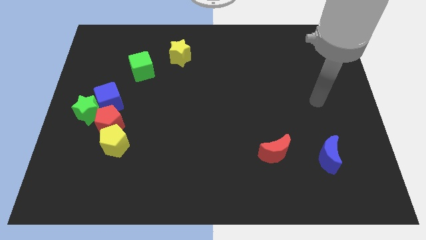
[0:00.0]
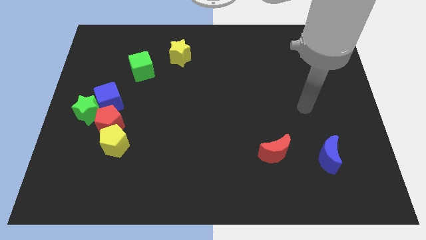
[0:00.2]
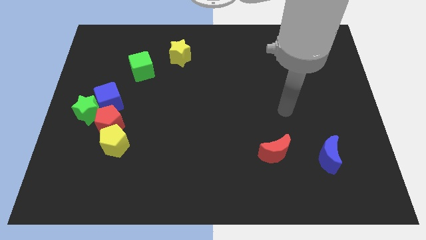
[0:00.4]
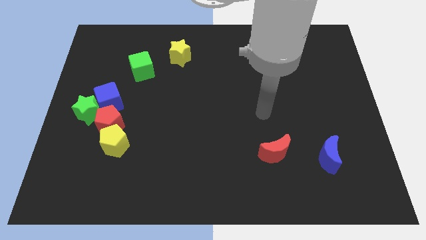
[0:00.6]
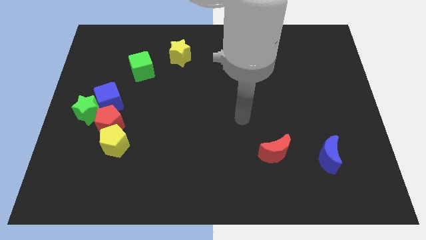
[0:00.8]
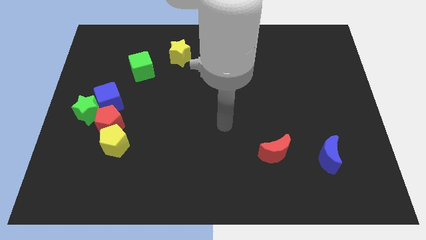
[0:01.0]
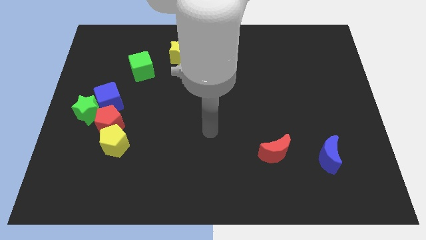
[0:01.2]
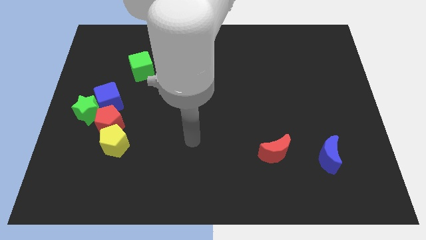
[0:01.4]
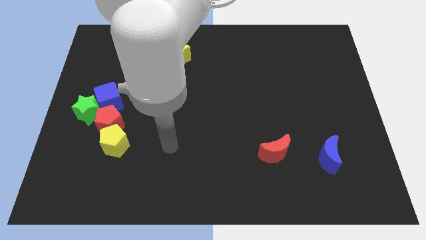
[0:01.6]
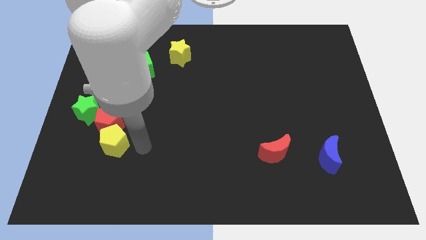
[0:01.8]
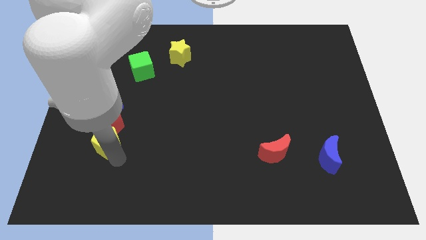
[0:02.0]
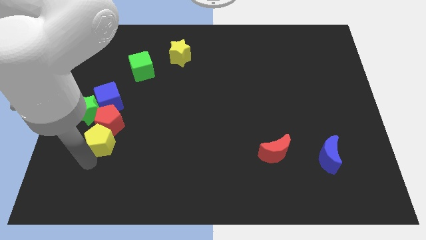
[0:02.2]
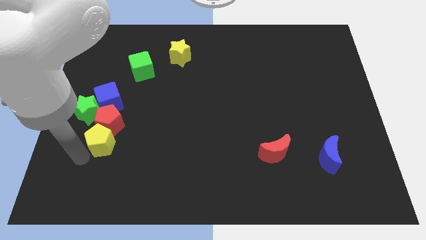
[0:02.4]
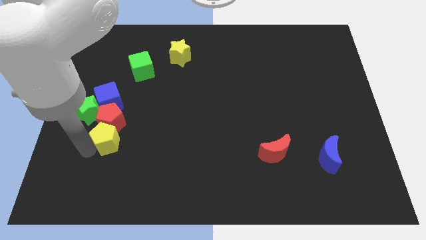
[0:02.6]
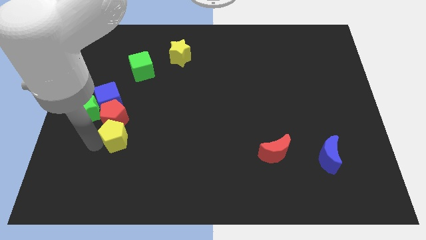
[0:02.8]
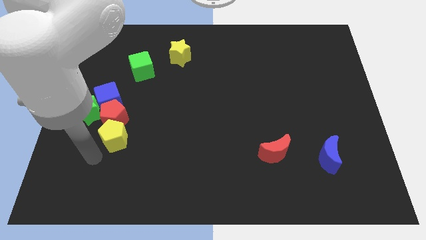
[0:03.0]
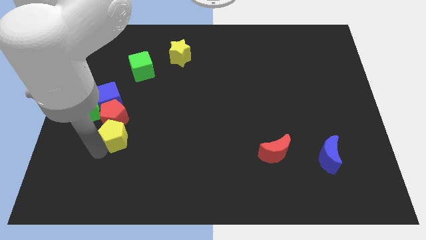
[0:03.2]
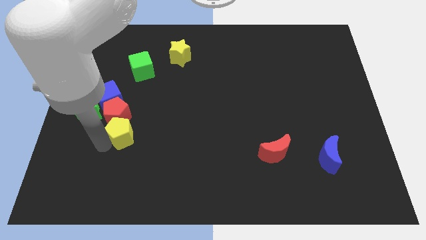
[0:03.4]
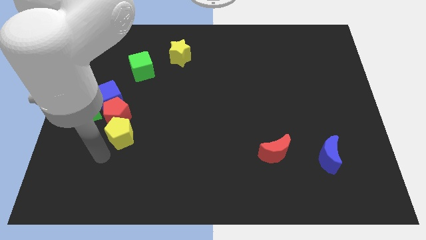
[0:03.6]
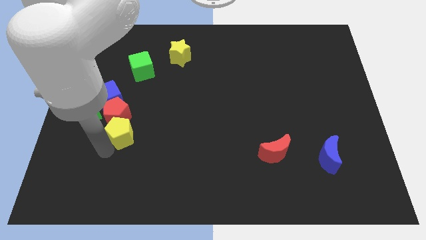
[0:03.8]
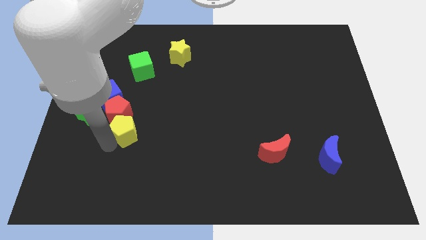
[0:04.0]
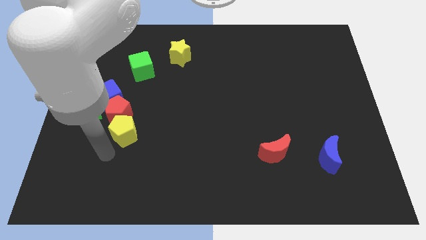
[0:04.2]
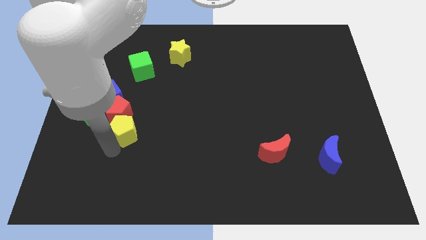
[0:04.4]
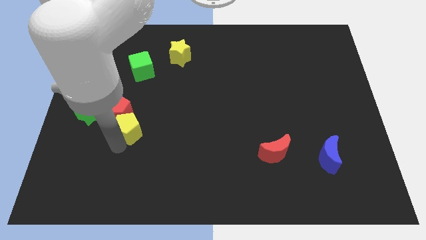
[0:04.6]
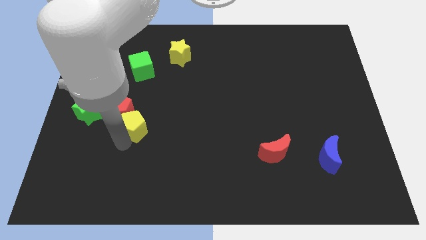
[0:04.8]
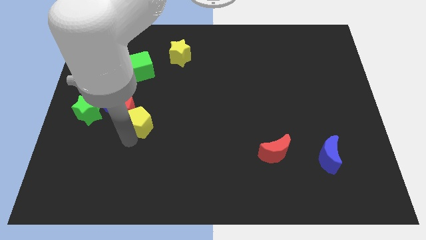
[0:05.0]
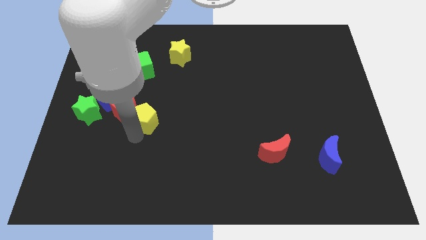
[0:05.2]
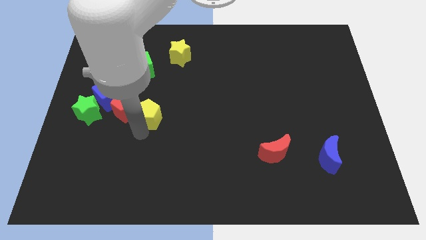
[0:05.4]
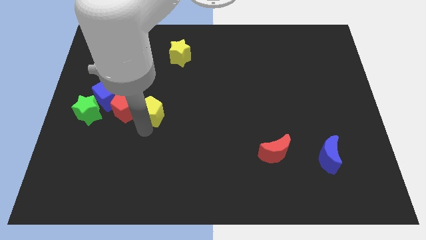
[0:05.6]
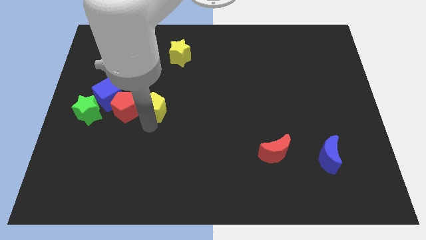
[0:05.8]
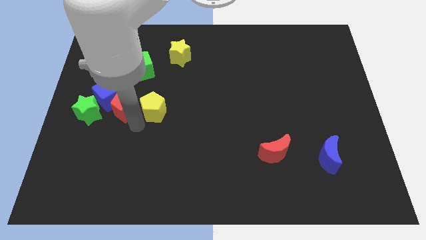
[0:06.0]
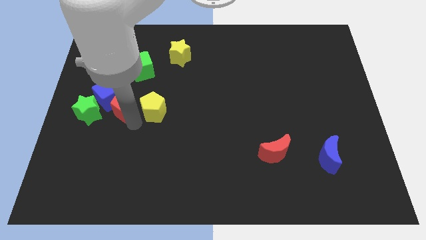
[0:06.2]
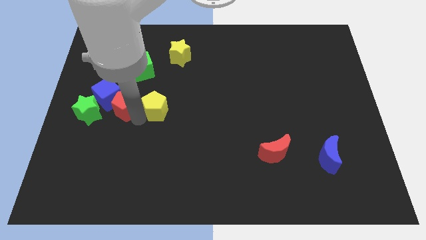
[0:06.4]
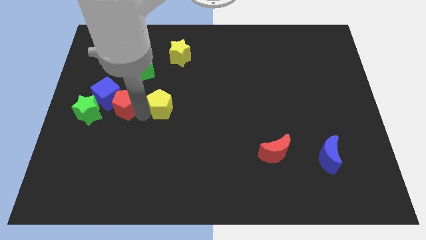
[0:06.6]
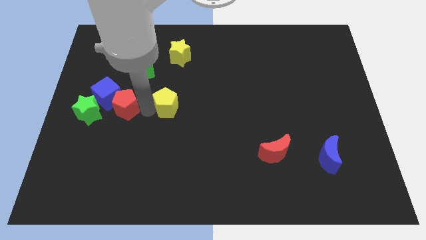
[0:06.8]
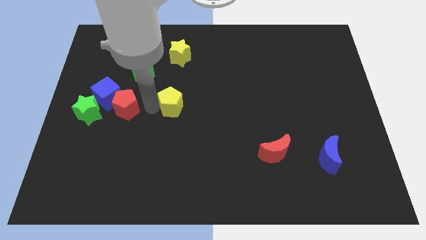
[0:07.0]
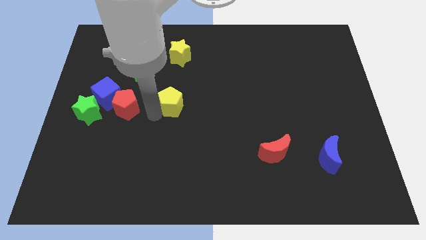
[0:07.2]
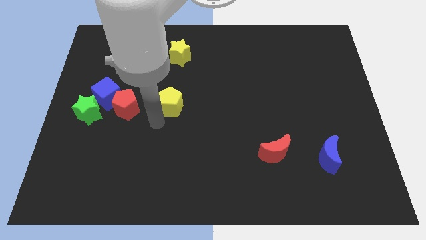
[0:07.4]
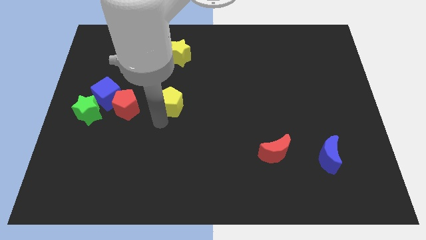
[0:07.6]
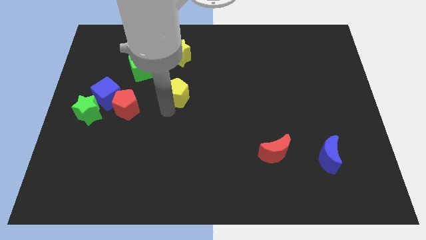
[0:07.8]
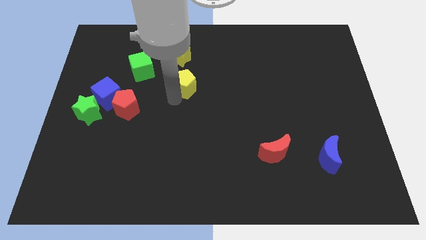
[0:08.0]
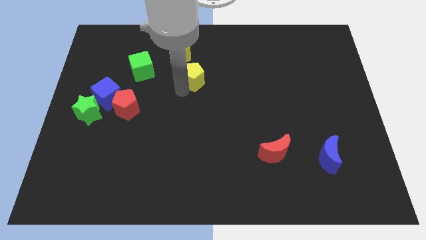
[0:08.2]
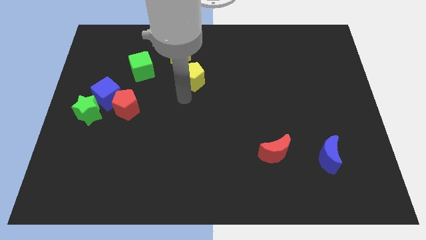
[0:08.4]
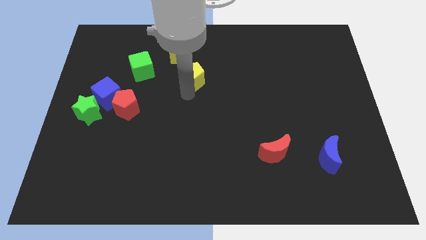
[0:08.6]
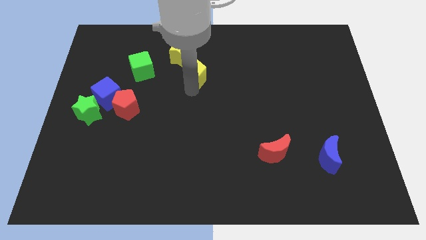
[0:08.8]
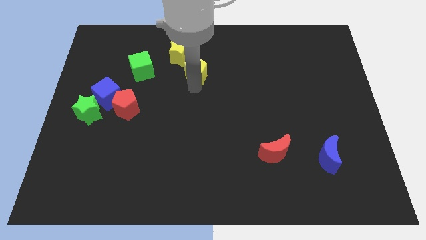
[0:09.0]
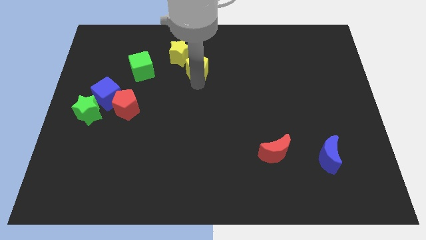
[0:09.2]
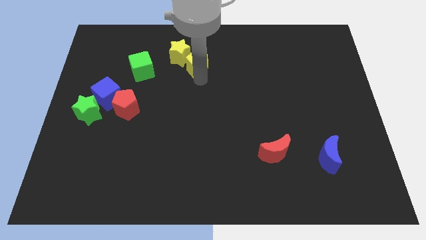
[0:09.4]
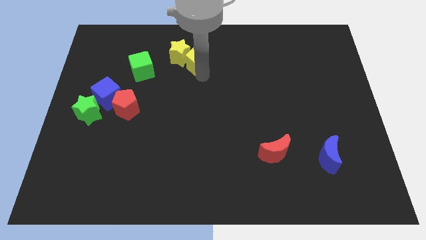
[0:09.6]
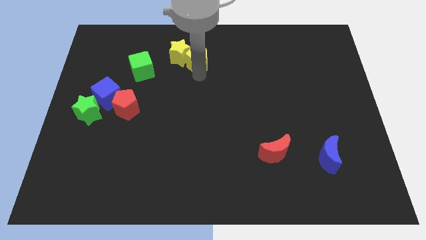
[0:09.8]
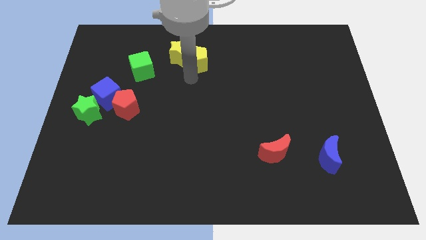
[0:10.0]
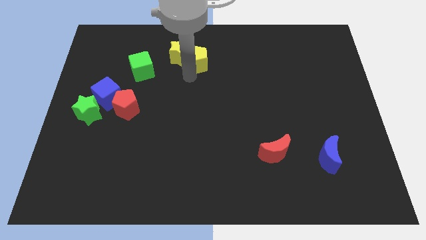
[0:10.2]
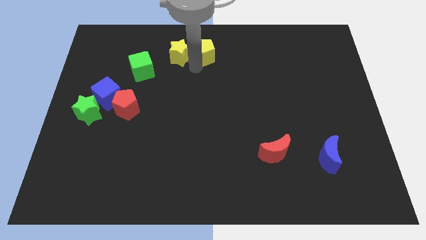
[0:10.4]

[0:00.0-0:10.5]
move the yellow pentagon to the top
